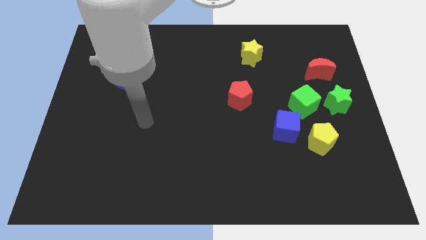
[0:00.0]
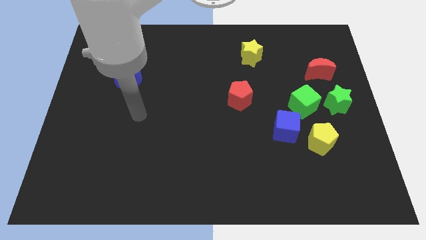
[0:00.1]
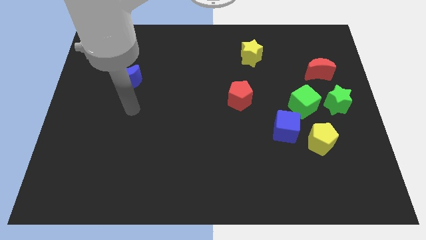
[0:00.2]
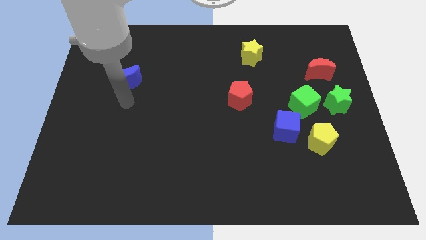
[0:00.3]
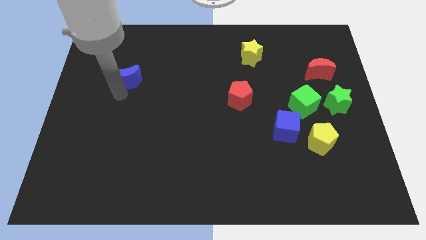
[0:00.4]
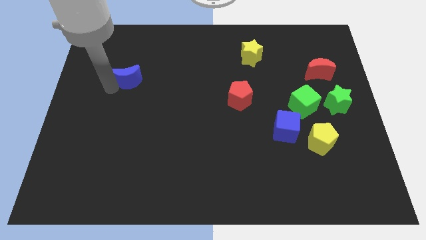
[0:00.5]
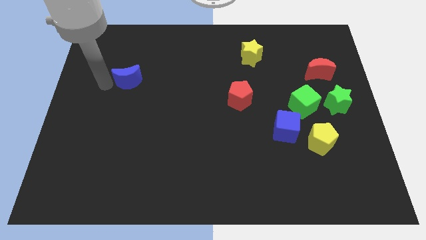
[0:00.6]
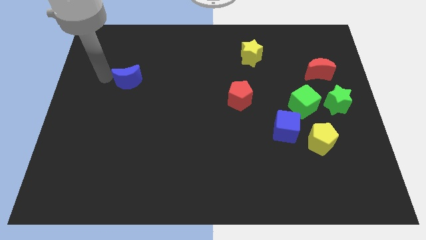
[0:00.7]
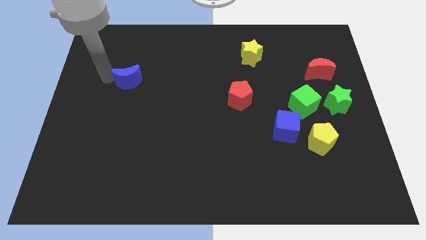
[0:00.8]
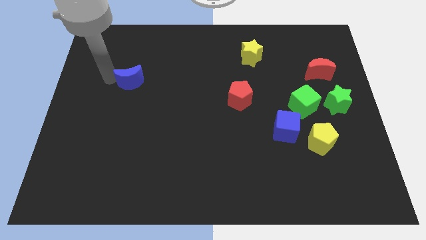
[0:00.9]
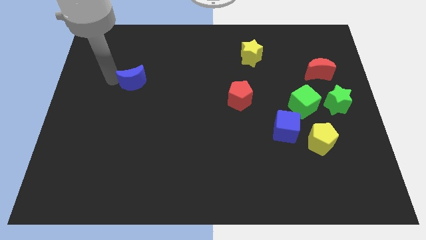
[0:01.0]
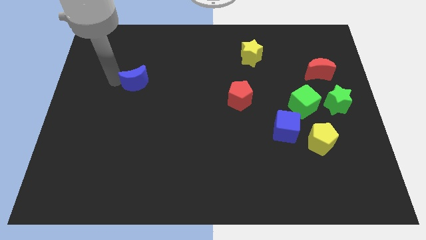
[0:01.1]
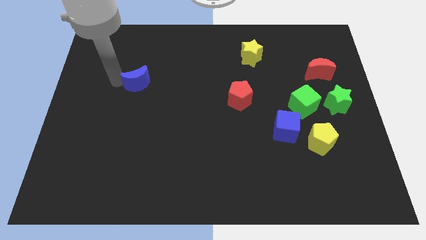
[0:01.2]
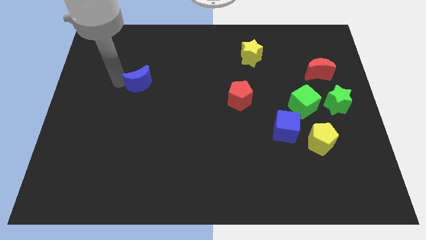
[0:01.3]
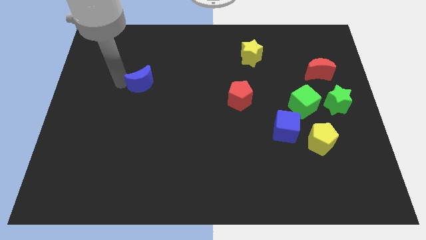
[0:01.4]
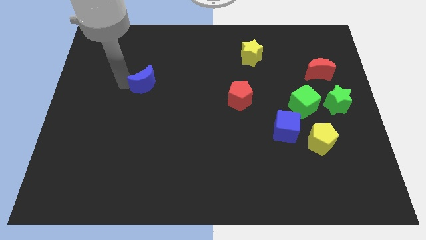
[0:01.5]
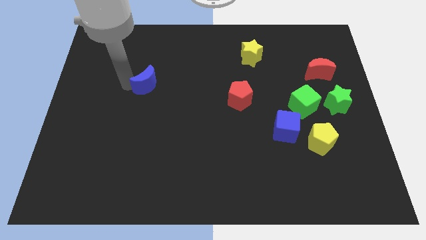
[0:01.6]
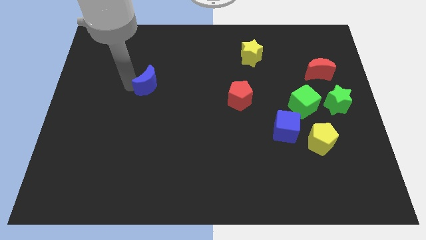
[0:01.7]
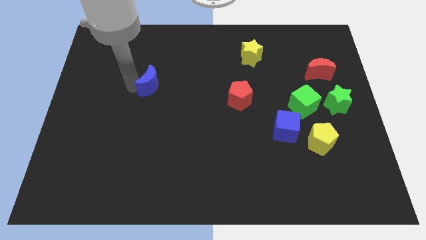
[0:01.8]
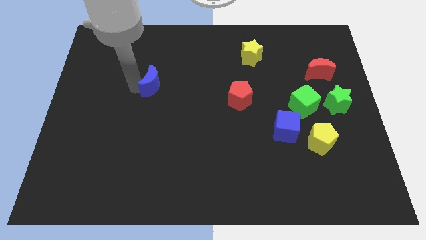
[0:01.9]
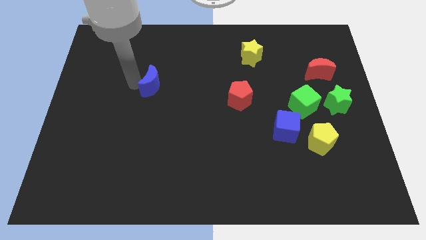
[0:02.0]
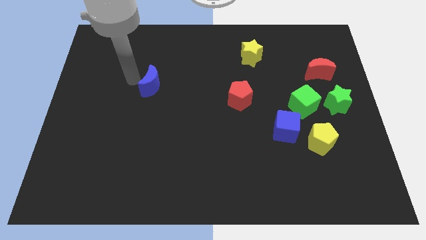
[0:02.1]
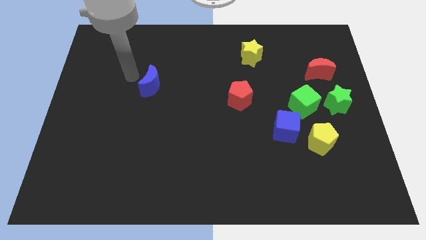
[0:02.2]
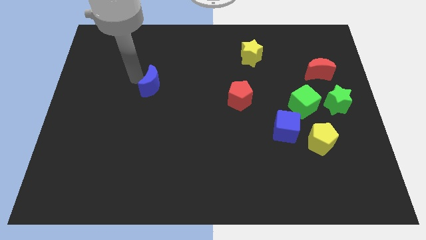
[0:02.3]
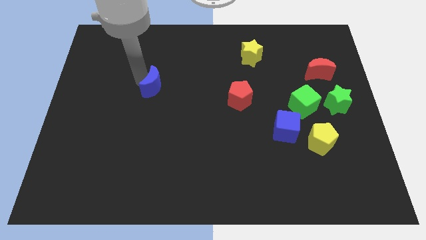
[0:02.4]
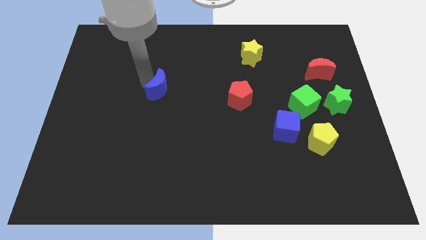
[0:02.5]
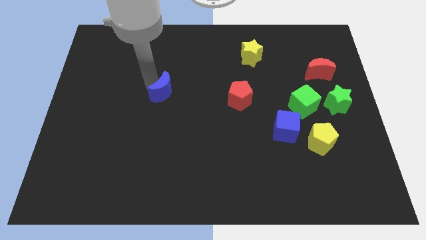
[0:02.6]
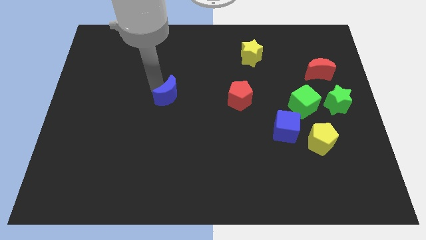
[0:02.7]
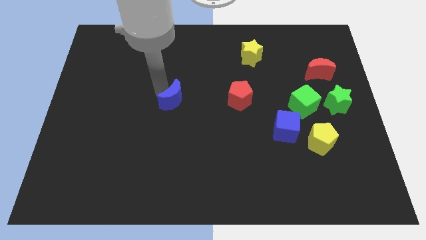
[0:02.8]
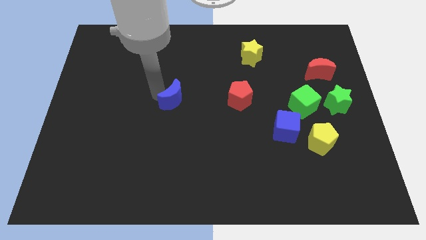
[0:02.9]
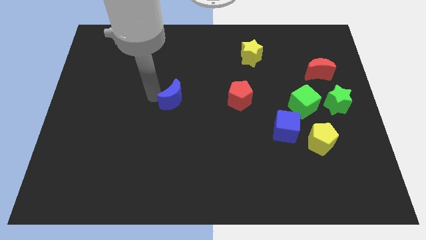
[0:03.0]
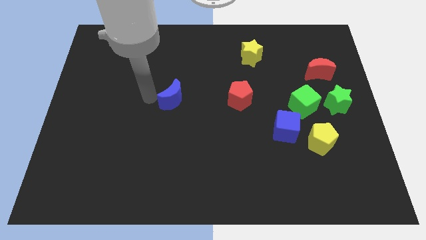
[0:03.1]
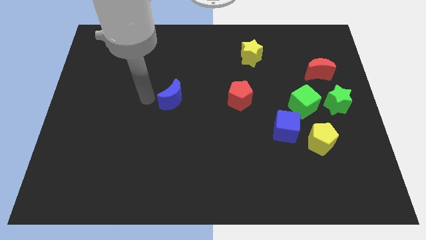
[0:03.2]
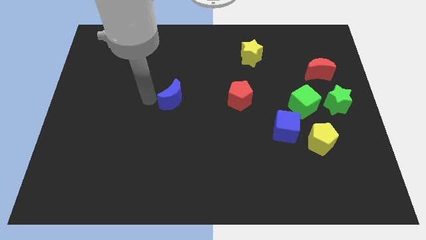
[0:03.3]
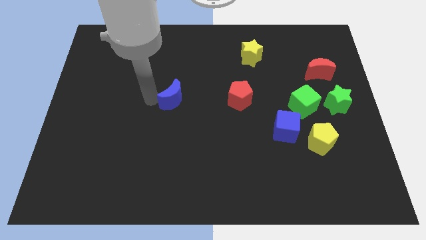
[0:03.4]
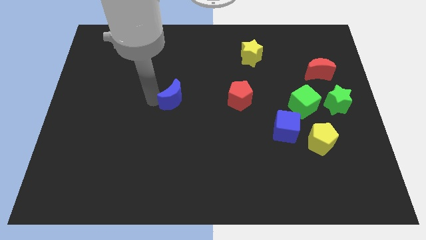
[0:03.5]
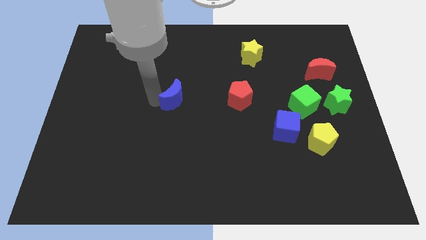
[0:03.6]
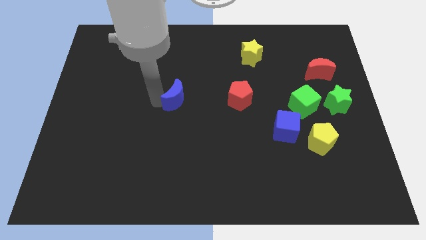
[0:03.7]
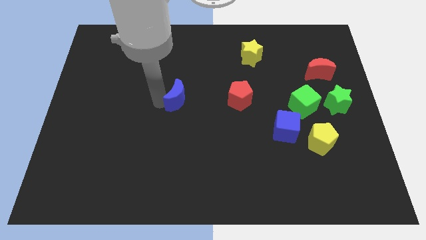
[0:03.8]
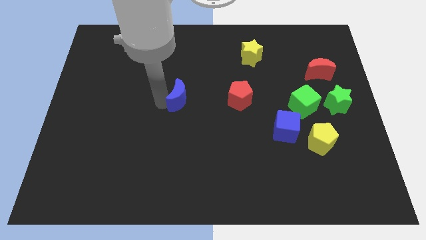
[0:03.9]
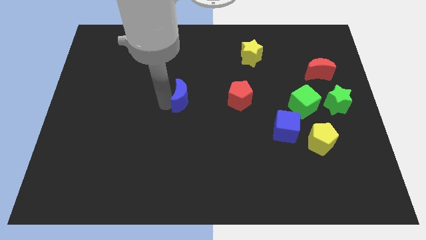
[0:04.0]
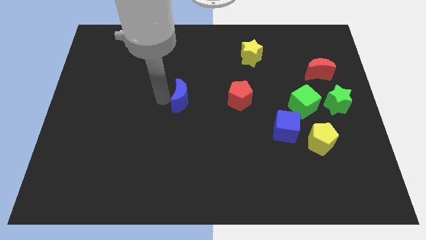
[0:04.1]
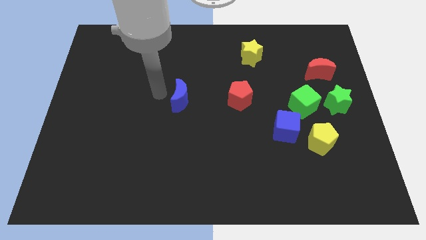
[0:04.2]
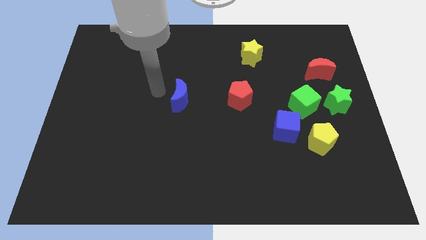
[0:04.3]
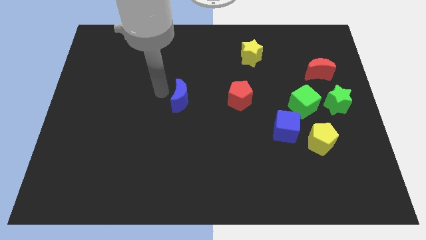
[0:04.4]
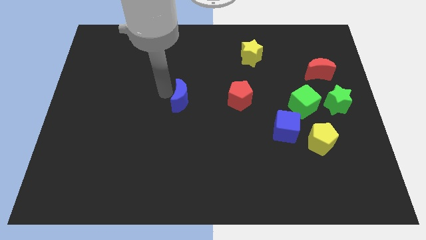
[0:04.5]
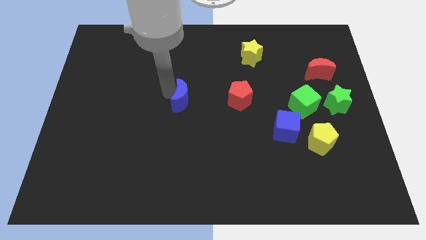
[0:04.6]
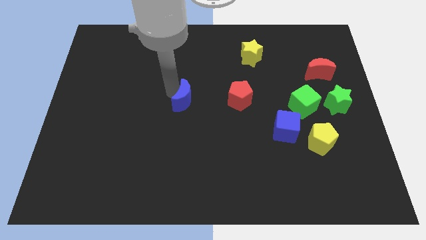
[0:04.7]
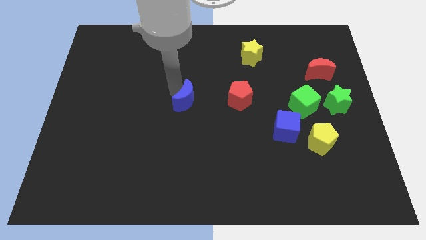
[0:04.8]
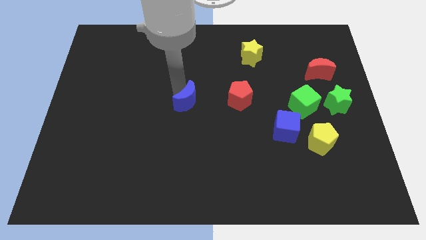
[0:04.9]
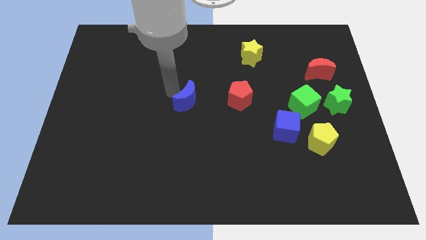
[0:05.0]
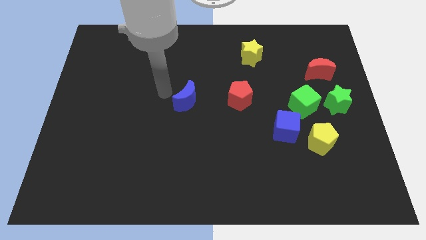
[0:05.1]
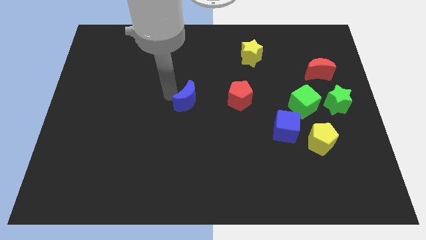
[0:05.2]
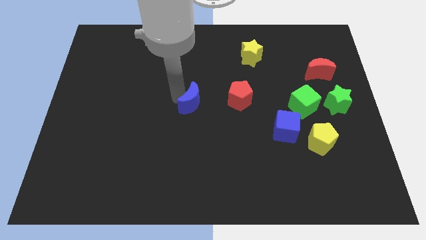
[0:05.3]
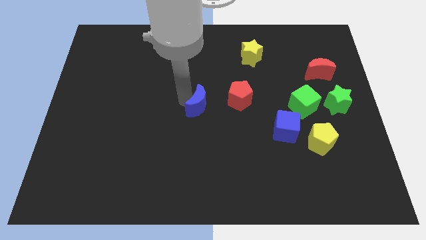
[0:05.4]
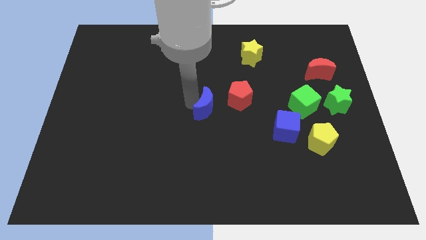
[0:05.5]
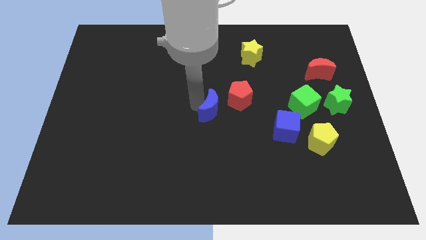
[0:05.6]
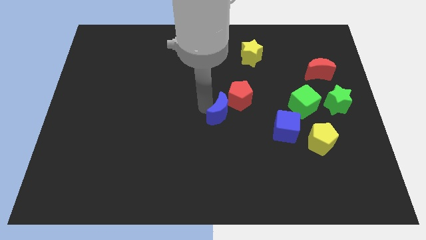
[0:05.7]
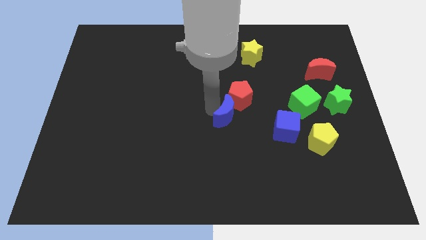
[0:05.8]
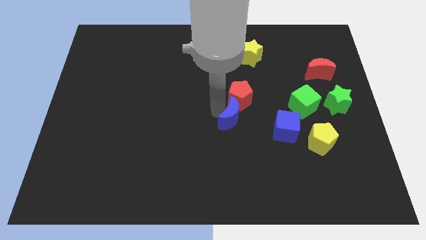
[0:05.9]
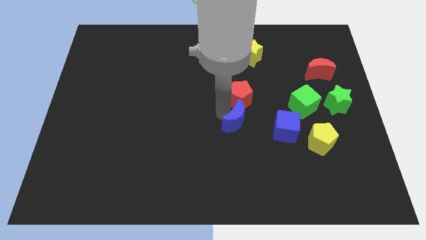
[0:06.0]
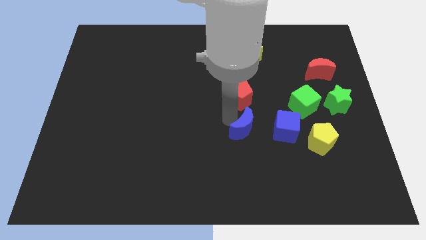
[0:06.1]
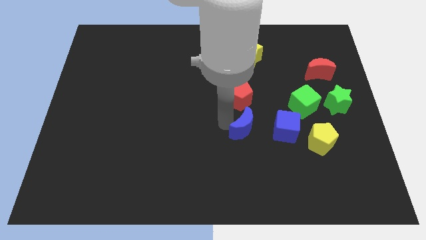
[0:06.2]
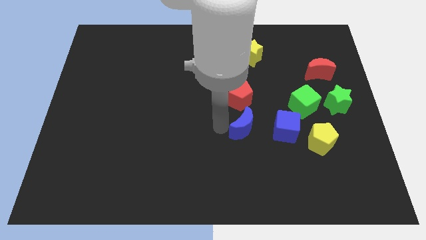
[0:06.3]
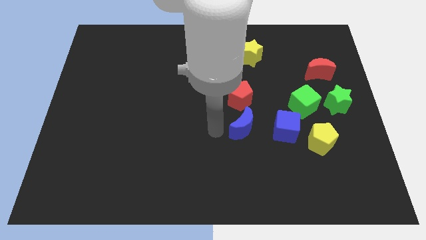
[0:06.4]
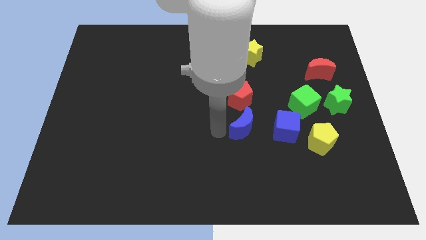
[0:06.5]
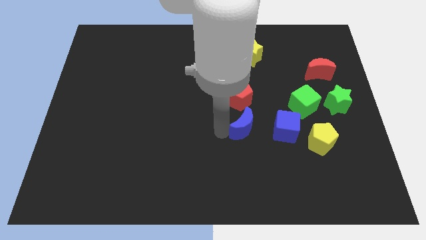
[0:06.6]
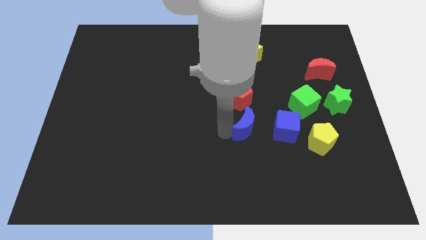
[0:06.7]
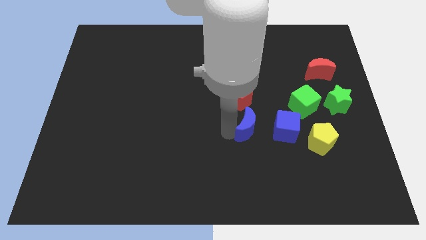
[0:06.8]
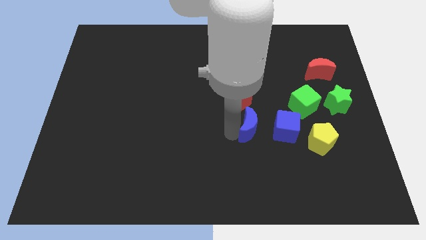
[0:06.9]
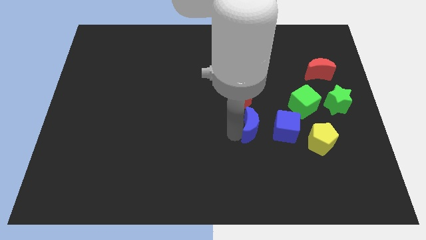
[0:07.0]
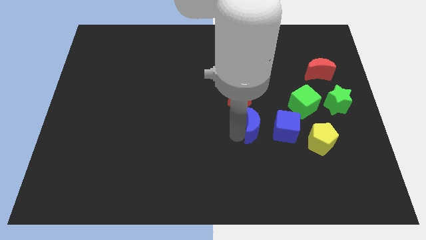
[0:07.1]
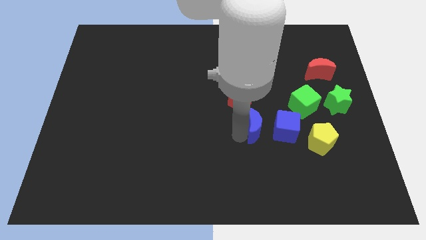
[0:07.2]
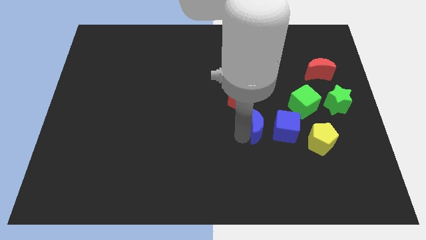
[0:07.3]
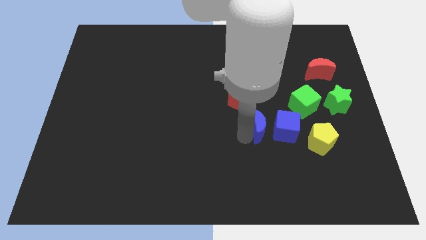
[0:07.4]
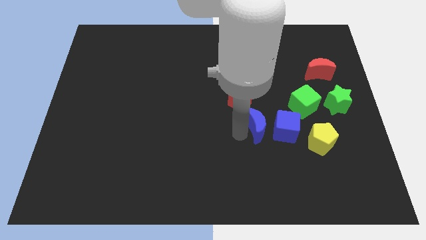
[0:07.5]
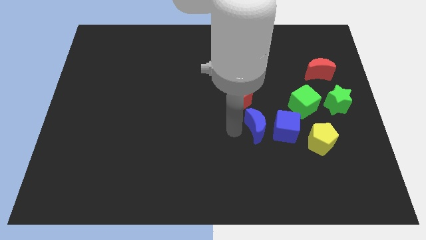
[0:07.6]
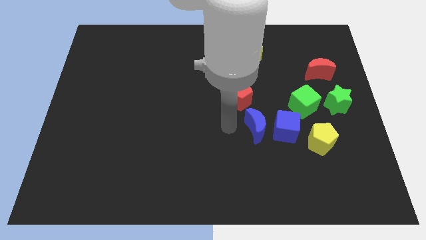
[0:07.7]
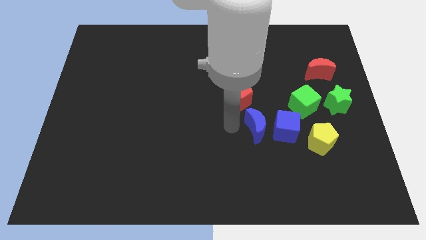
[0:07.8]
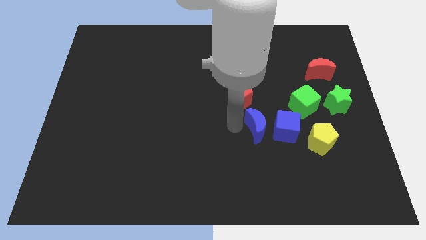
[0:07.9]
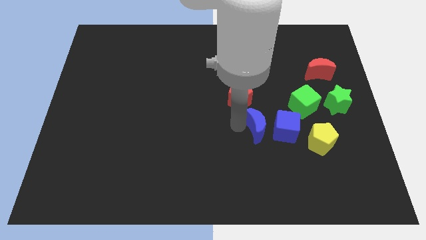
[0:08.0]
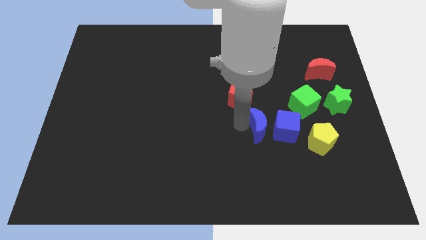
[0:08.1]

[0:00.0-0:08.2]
put the blue moon close to the blue cube
